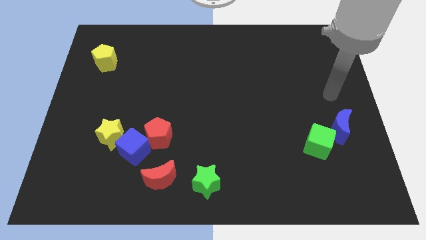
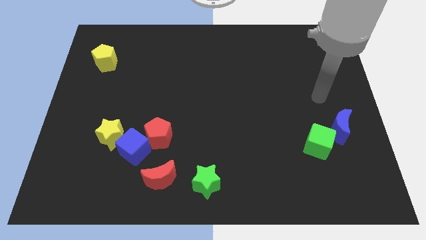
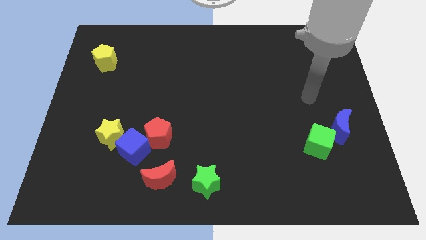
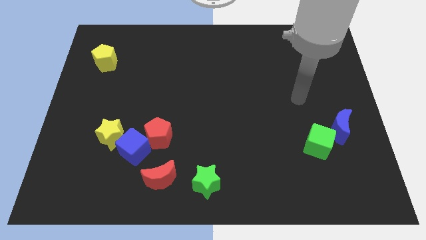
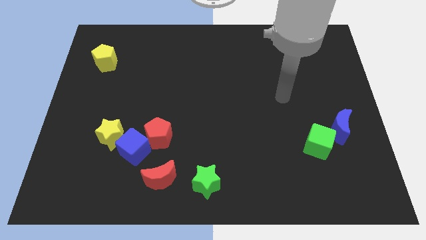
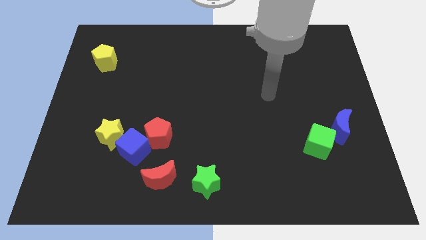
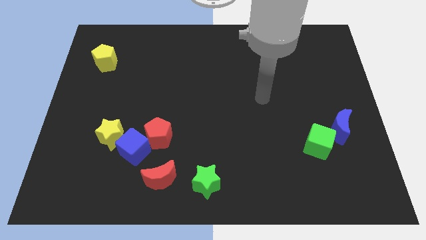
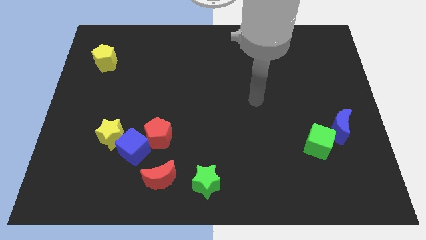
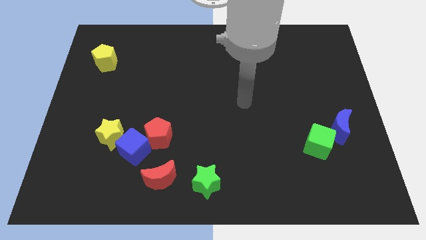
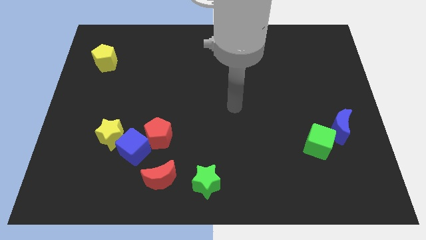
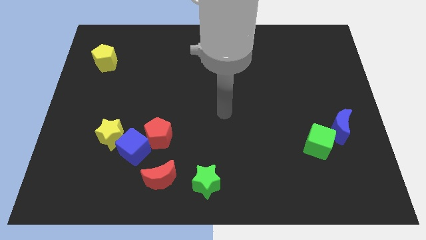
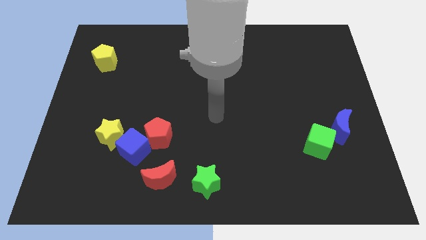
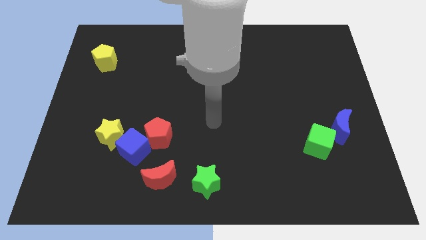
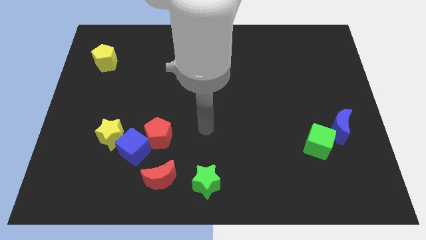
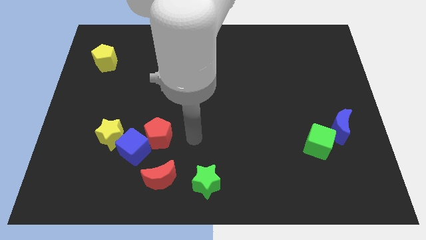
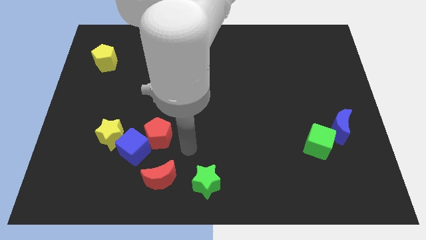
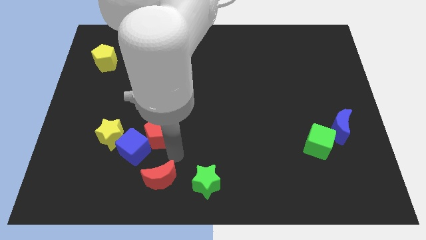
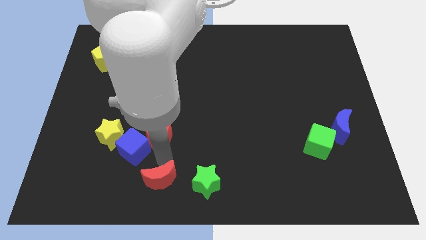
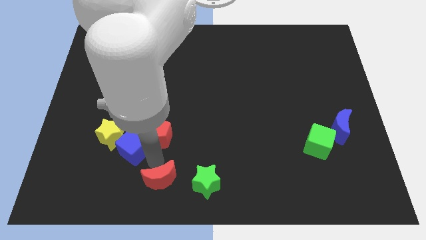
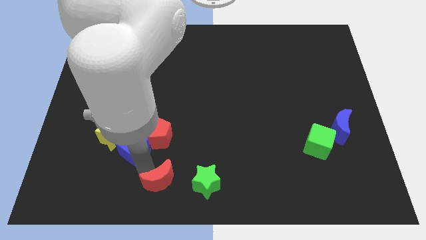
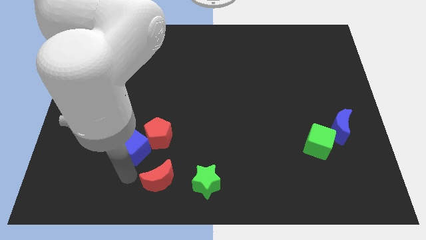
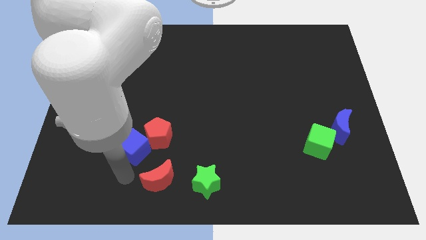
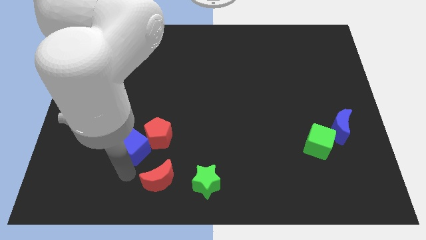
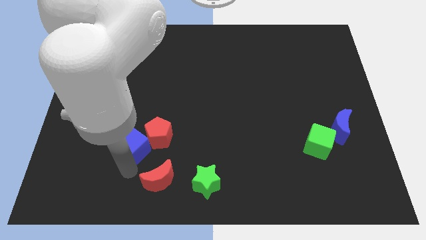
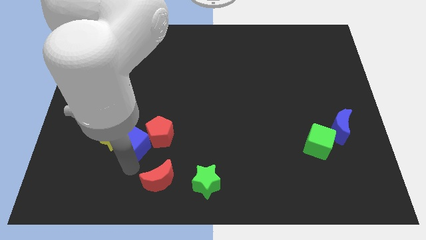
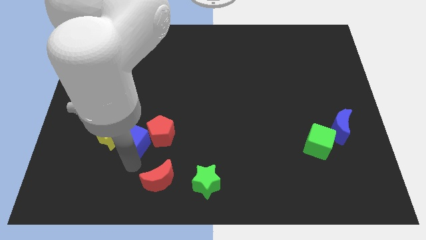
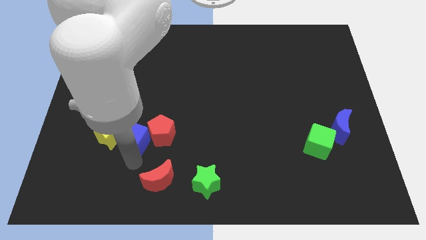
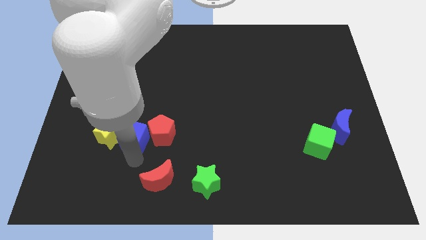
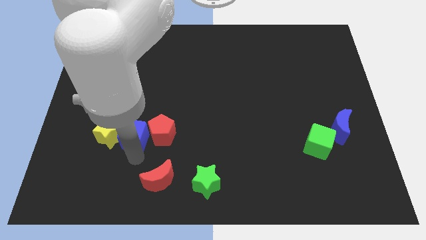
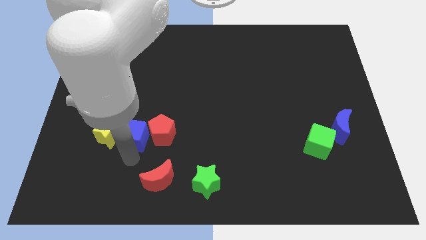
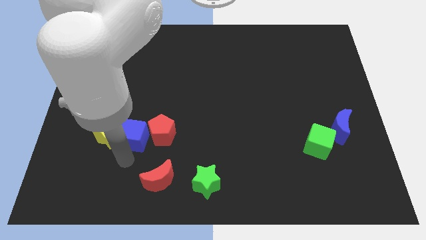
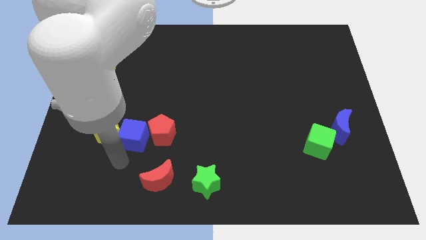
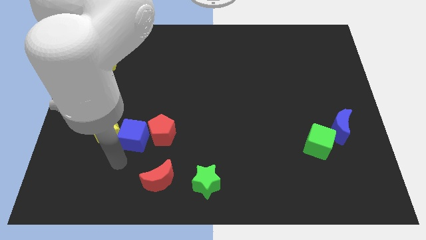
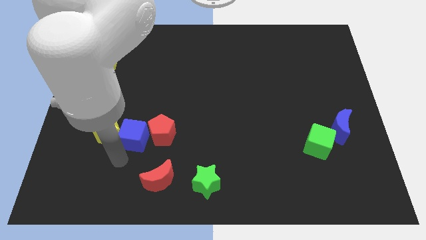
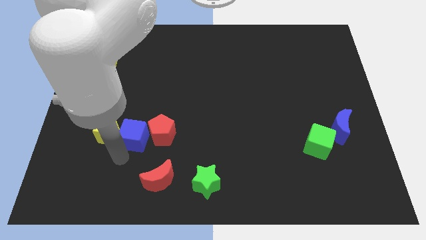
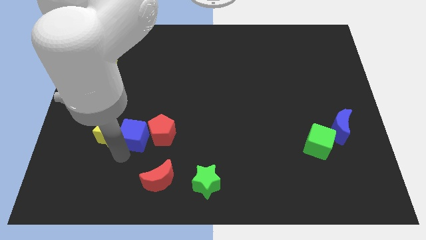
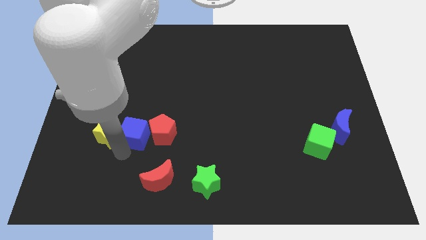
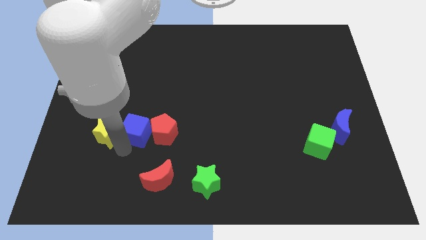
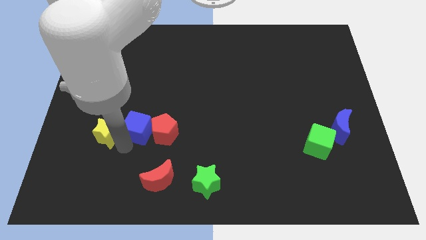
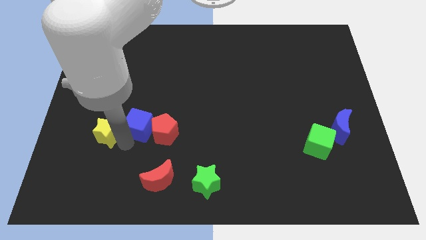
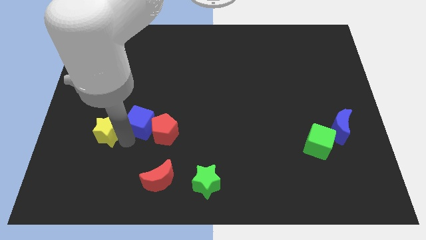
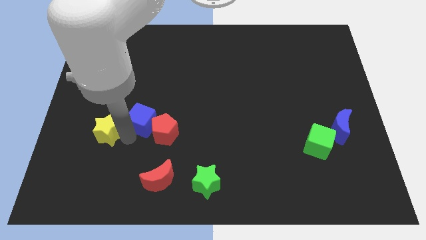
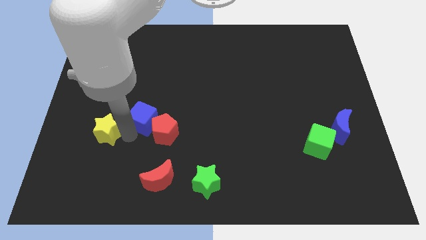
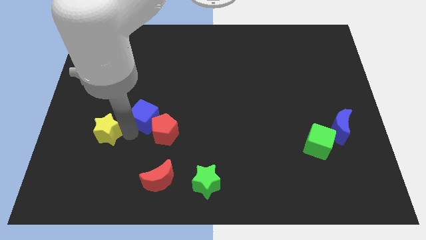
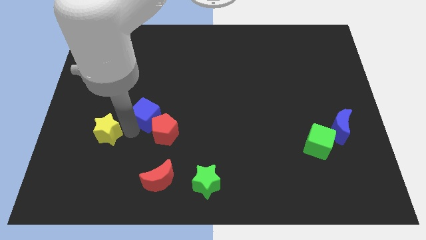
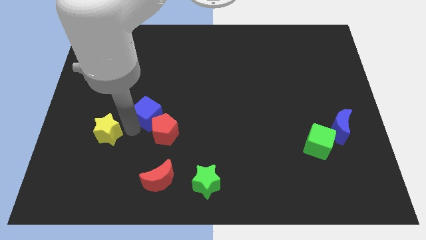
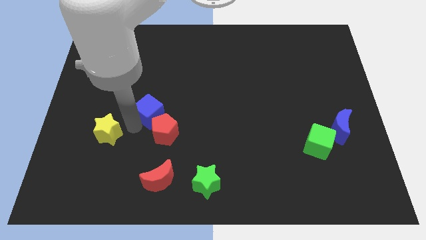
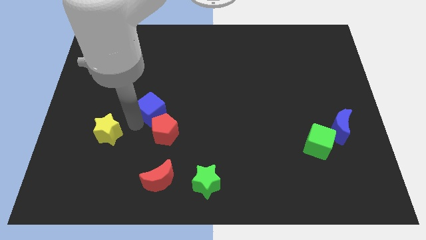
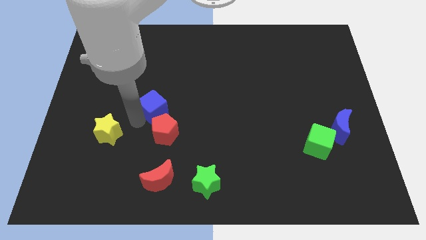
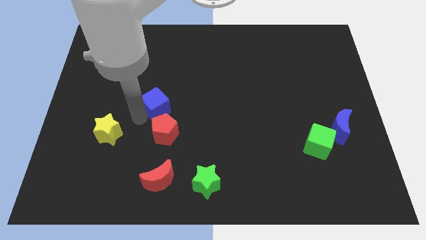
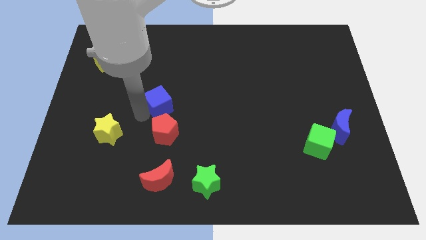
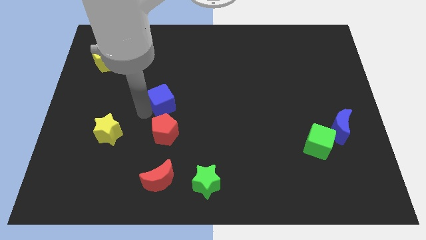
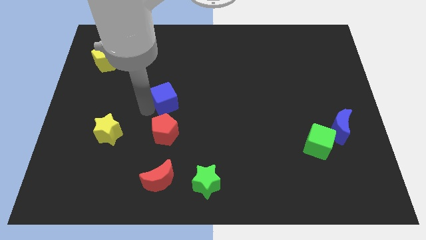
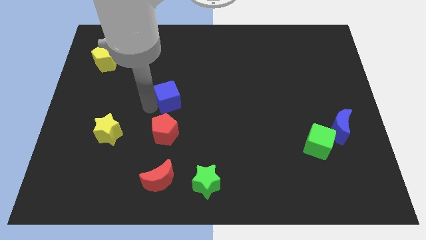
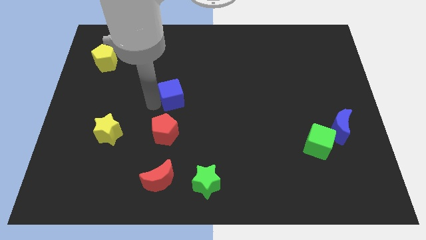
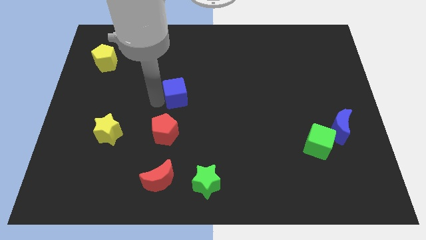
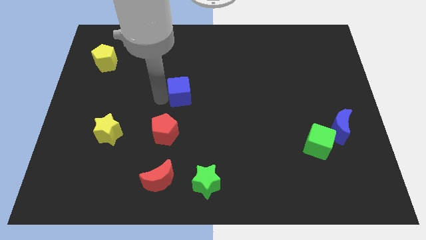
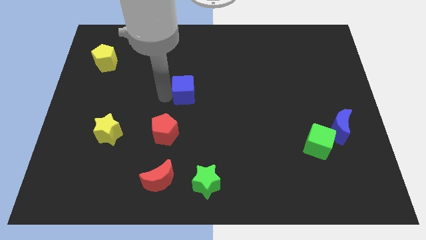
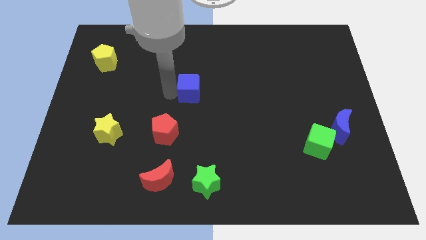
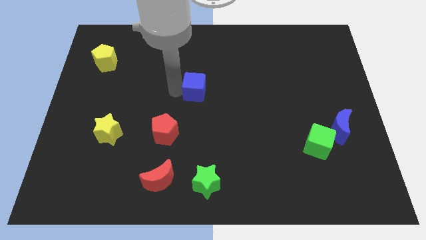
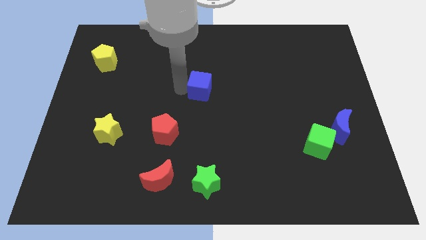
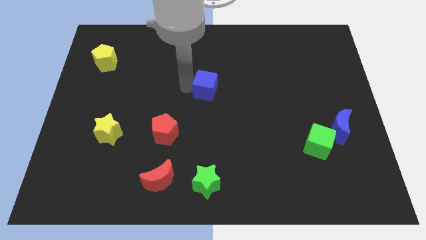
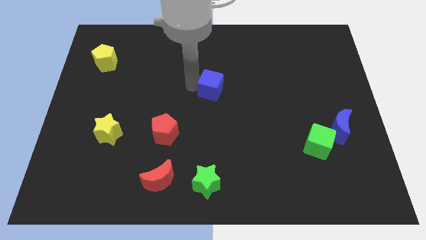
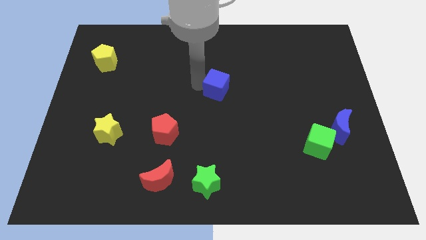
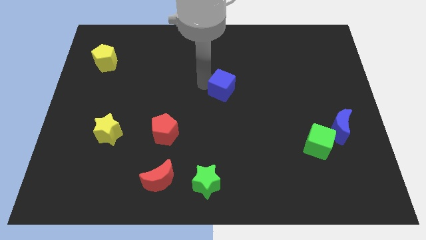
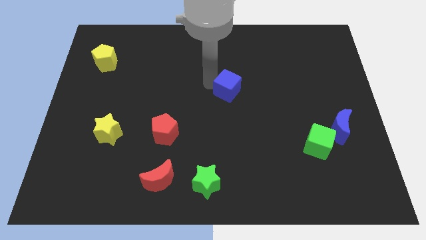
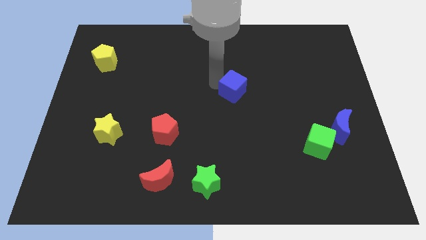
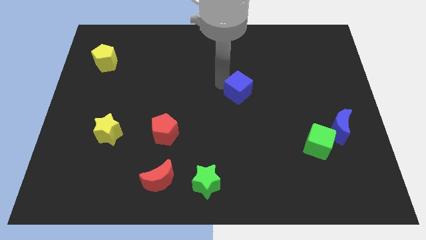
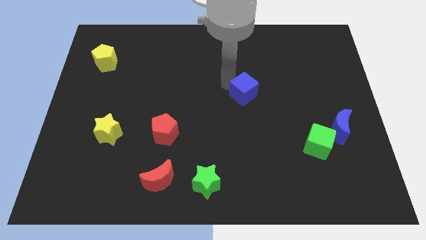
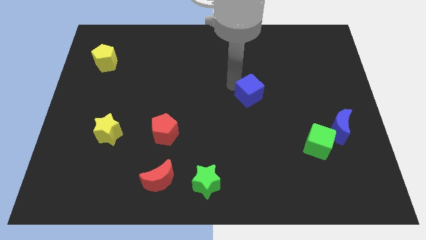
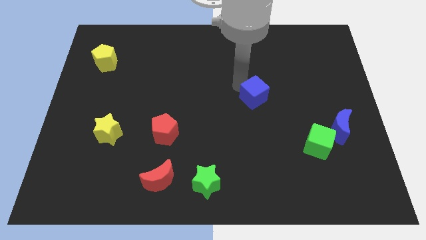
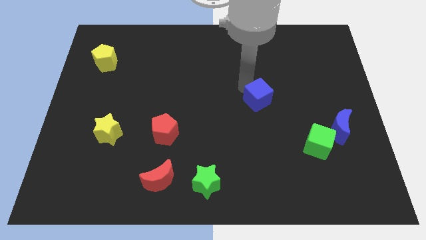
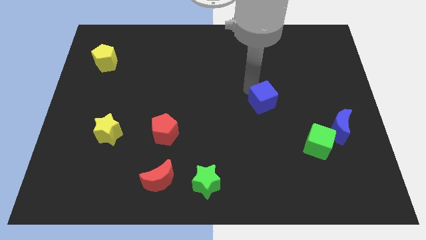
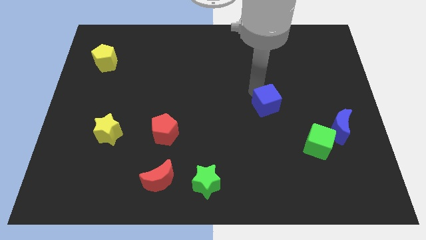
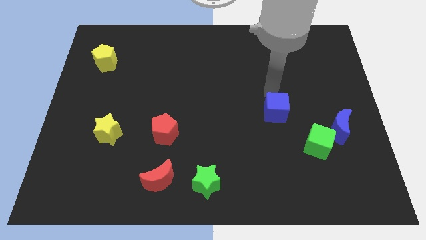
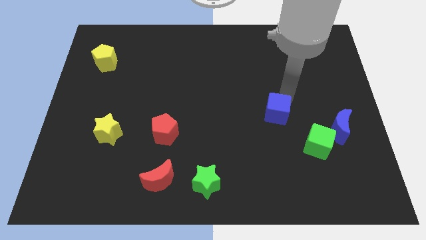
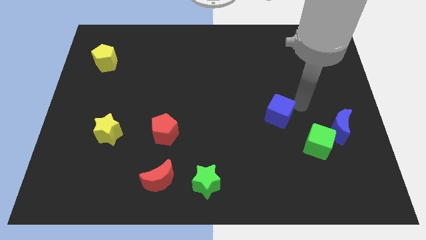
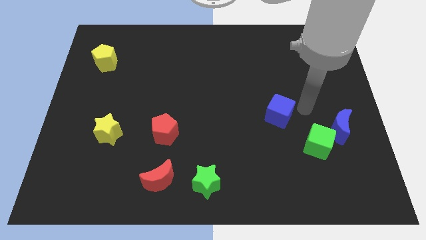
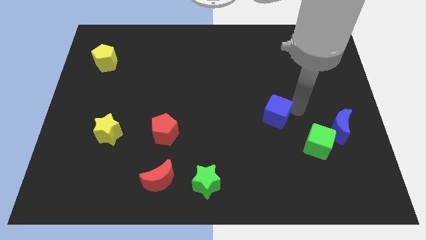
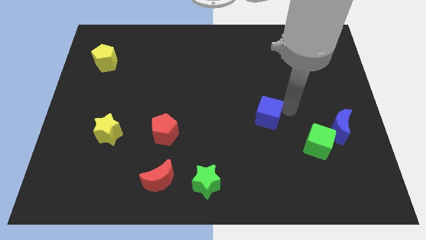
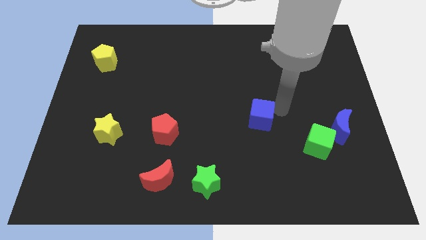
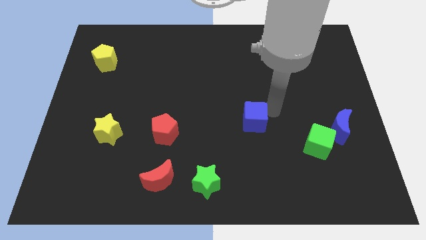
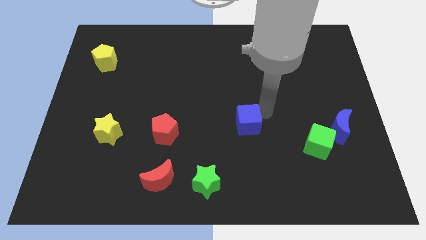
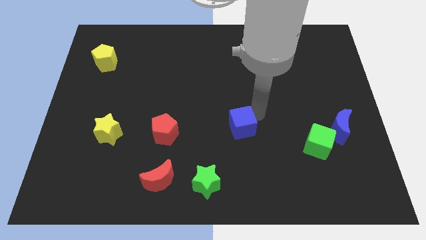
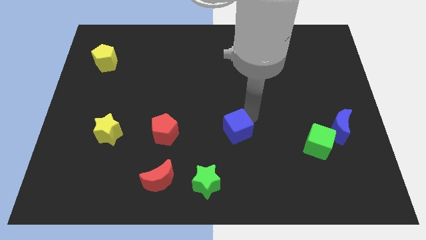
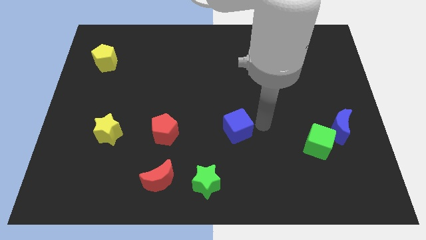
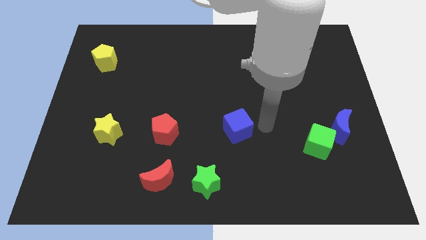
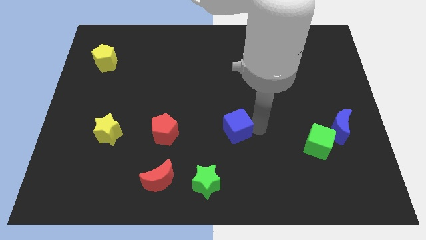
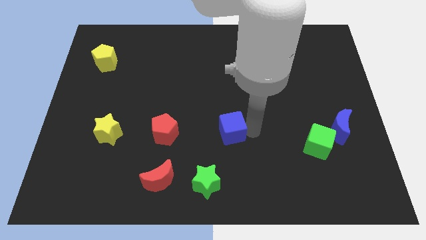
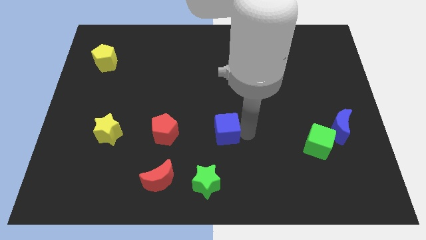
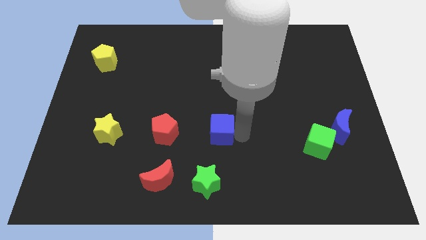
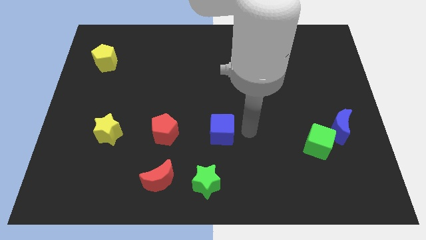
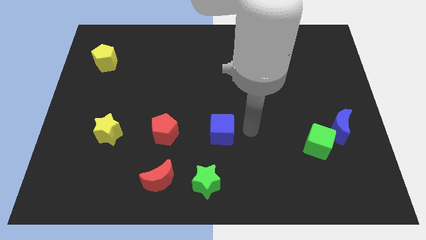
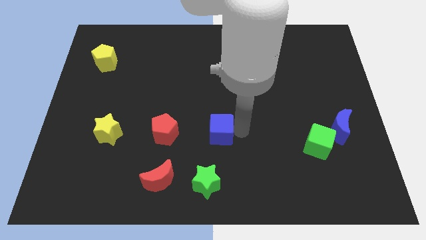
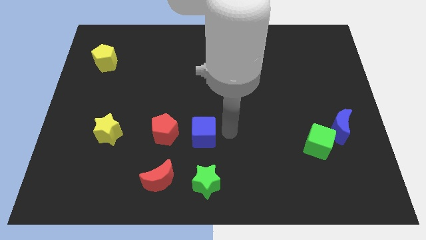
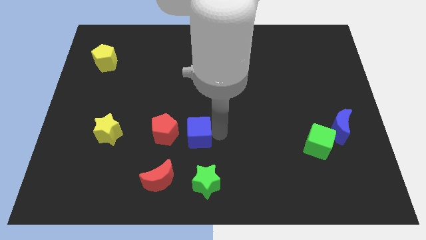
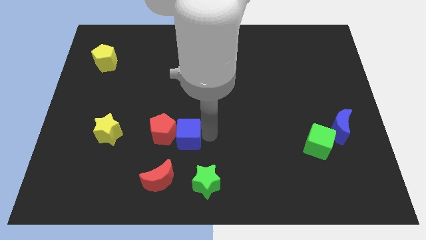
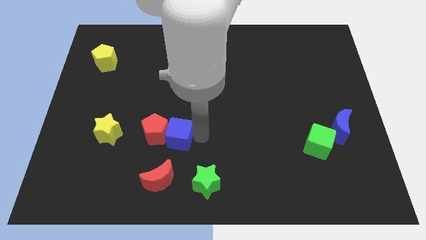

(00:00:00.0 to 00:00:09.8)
push the blue cube above the red moon
